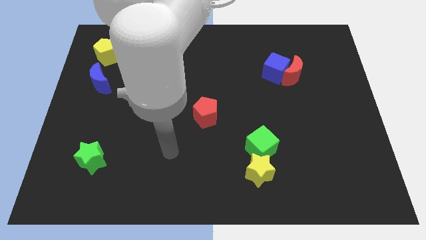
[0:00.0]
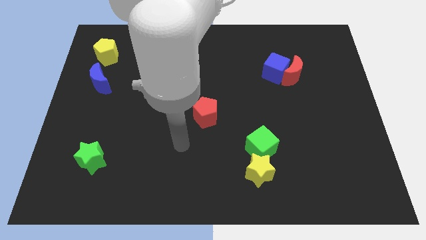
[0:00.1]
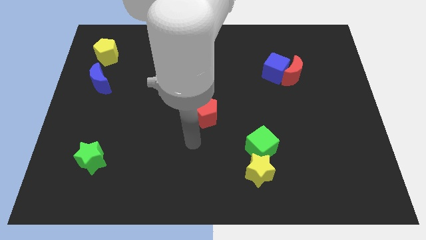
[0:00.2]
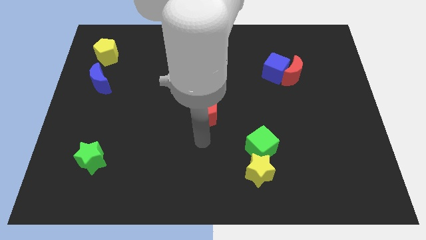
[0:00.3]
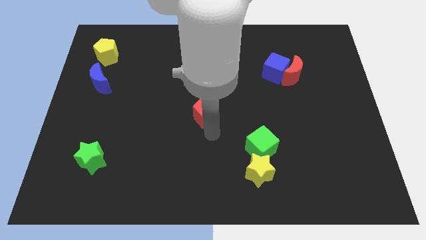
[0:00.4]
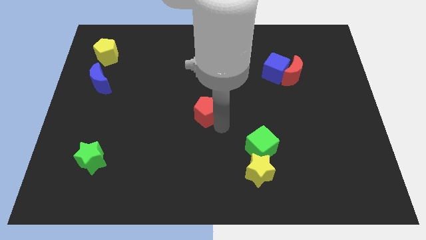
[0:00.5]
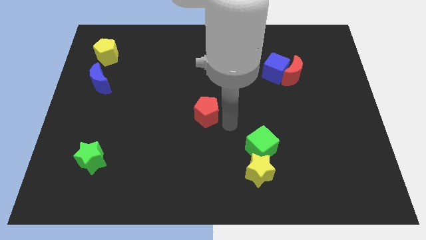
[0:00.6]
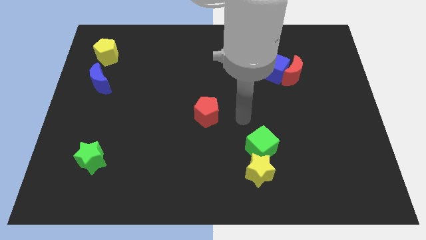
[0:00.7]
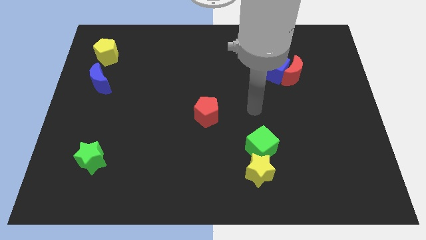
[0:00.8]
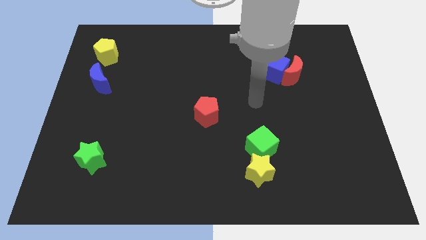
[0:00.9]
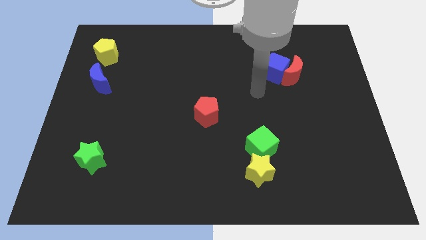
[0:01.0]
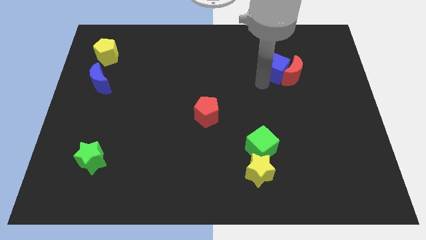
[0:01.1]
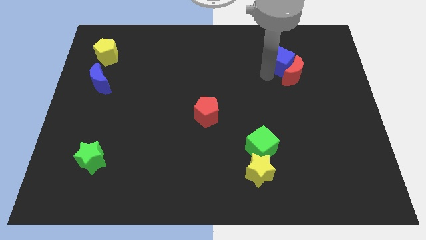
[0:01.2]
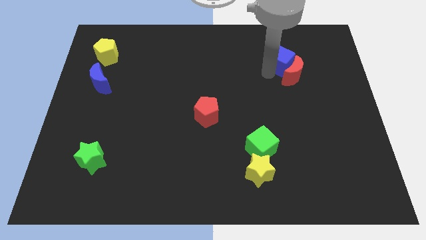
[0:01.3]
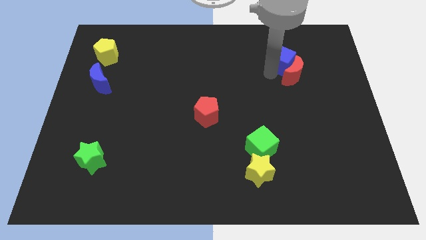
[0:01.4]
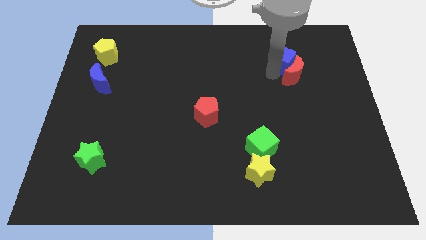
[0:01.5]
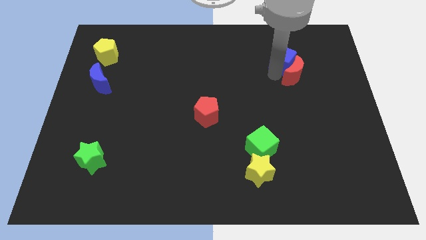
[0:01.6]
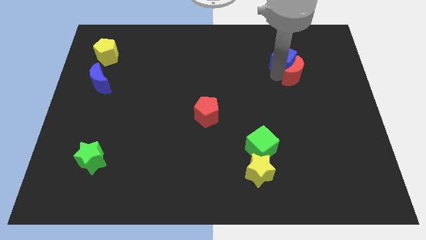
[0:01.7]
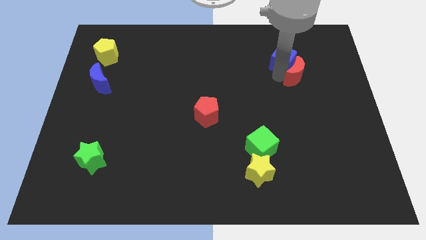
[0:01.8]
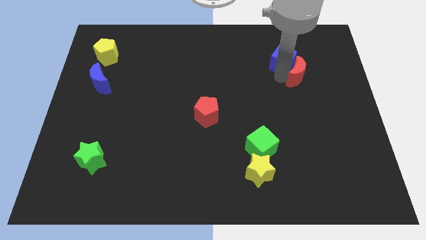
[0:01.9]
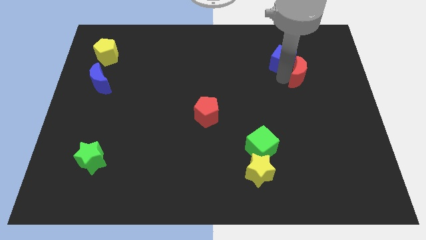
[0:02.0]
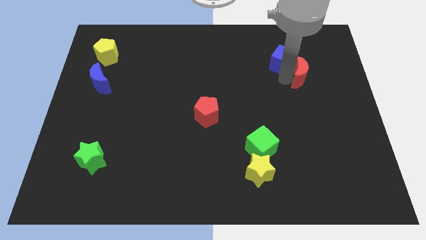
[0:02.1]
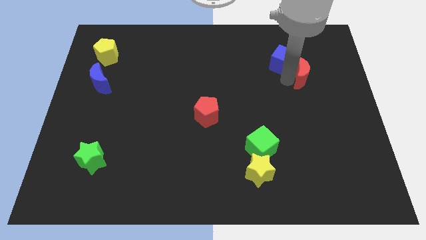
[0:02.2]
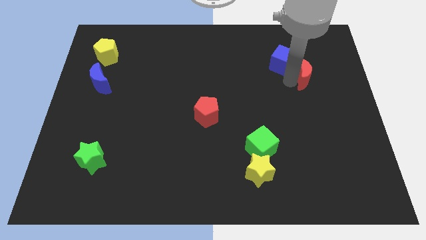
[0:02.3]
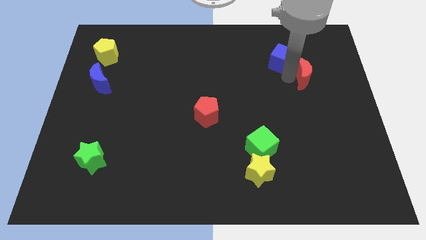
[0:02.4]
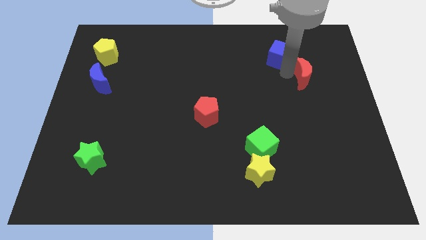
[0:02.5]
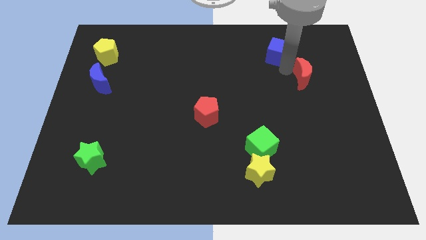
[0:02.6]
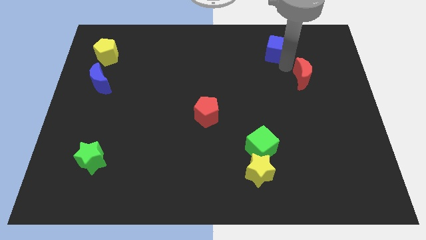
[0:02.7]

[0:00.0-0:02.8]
separate the red moon from the blue cube

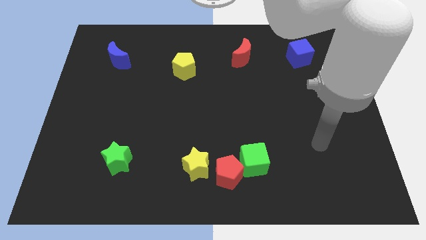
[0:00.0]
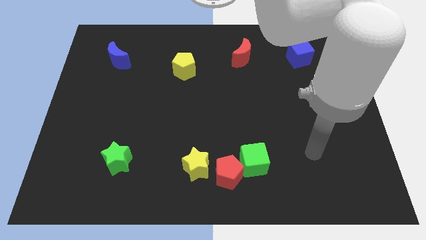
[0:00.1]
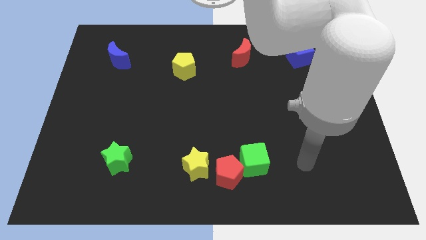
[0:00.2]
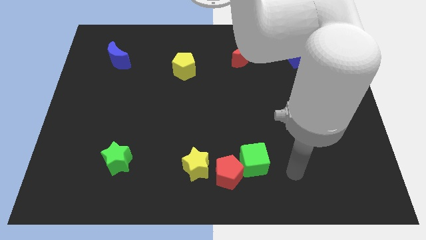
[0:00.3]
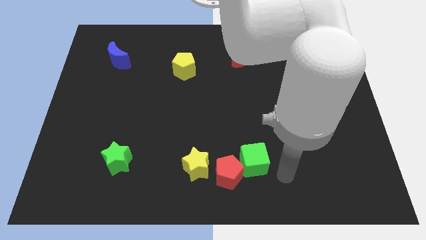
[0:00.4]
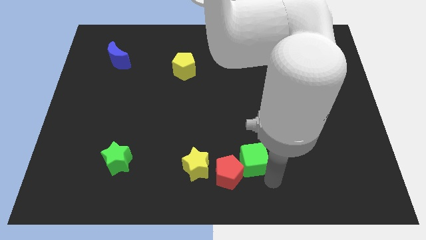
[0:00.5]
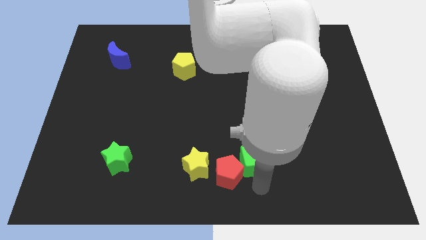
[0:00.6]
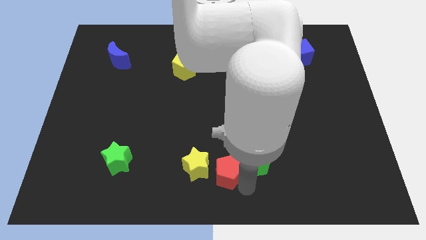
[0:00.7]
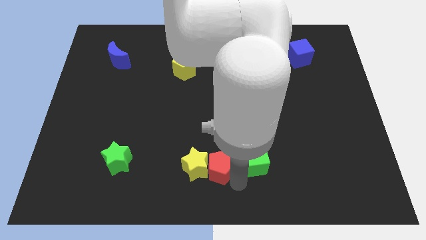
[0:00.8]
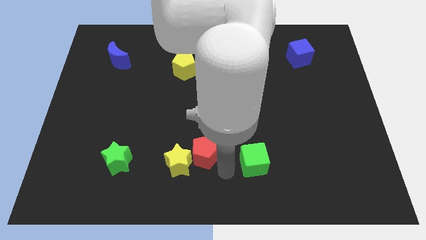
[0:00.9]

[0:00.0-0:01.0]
pull the green cube apart from the red pentagon

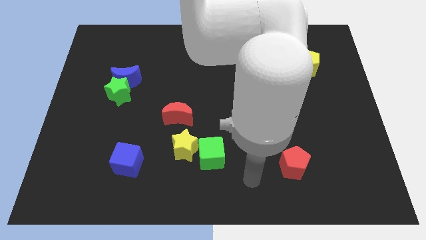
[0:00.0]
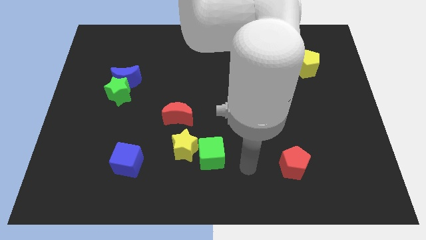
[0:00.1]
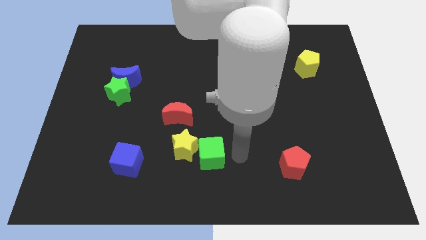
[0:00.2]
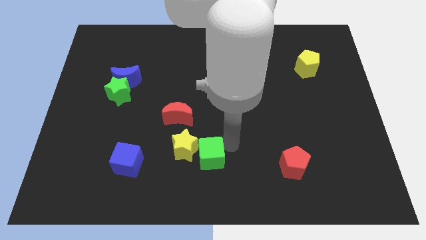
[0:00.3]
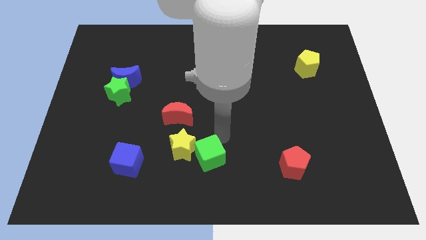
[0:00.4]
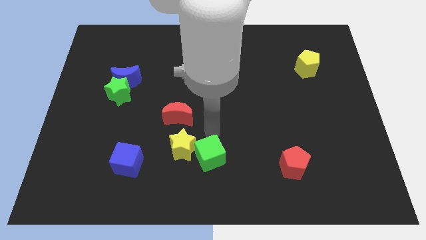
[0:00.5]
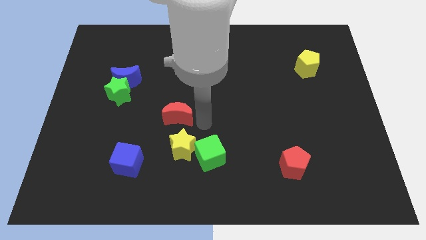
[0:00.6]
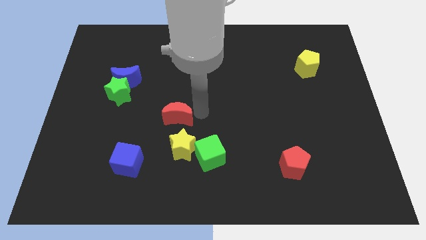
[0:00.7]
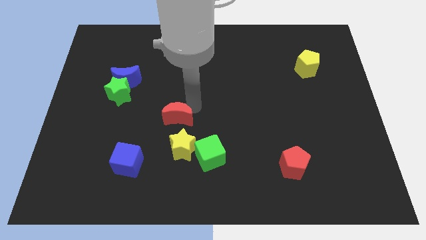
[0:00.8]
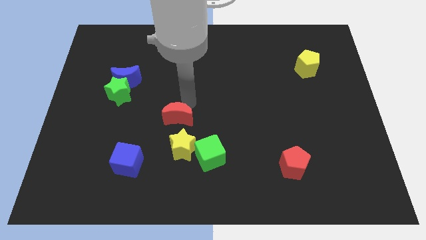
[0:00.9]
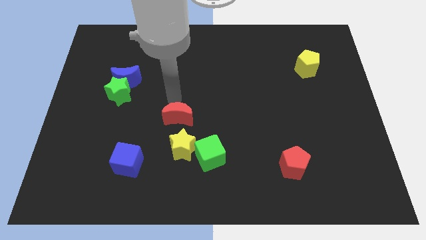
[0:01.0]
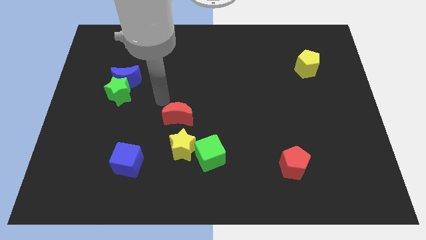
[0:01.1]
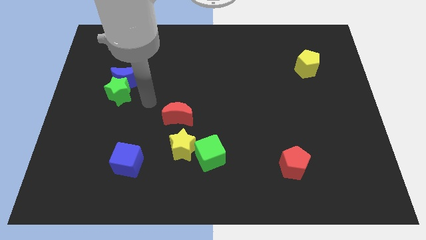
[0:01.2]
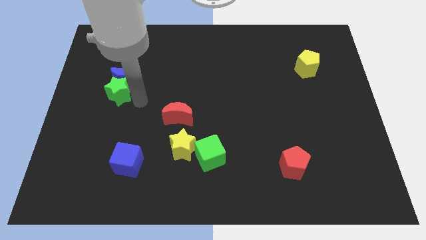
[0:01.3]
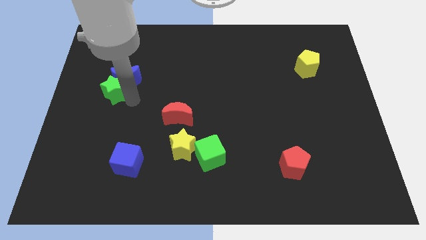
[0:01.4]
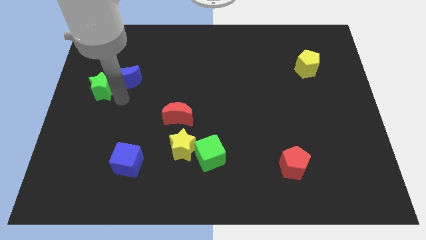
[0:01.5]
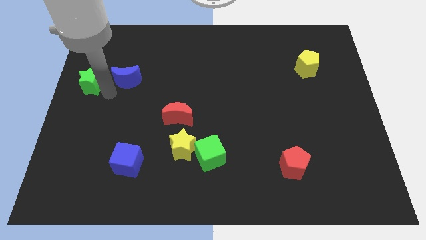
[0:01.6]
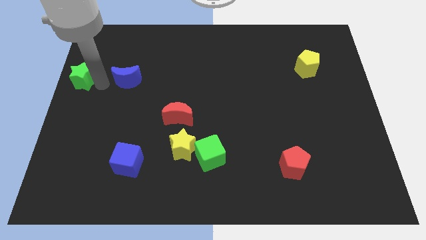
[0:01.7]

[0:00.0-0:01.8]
pull the blue moon apart from the green star

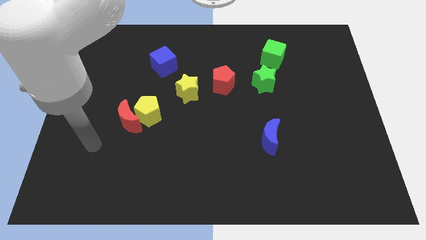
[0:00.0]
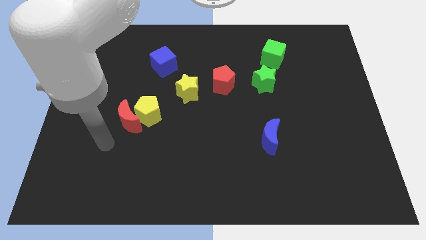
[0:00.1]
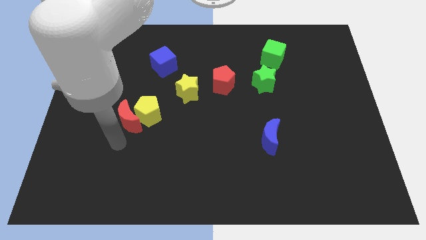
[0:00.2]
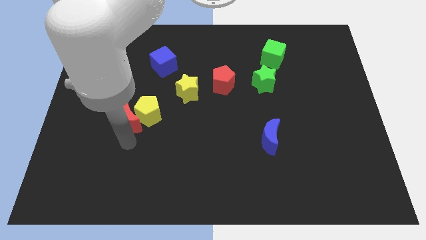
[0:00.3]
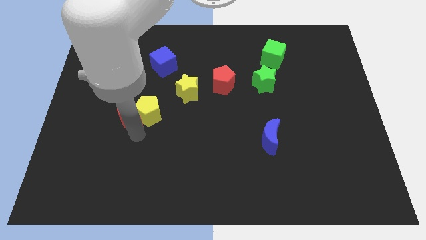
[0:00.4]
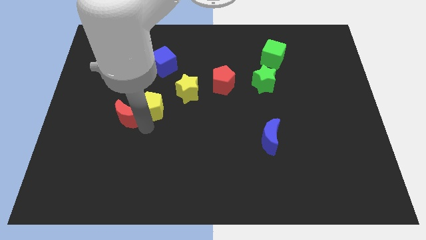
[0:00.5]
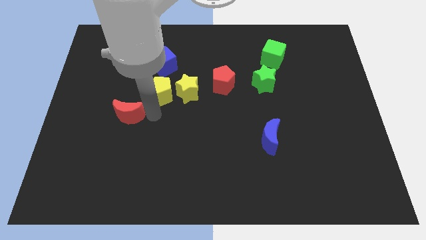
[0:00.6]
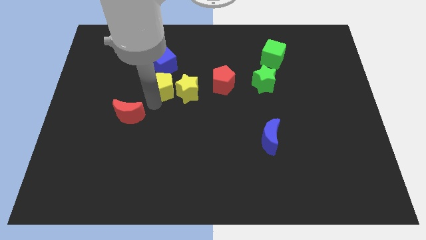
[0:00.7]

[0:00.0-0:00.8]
move the red moon away from the yellow pentagon

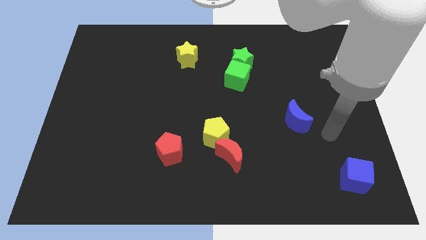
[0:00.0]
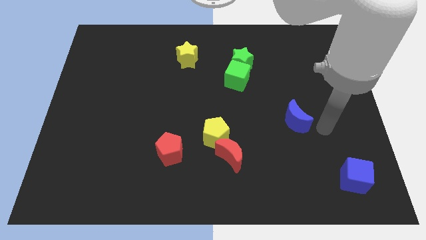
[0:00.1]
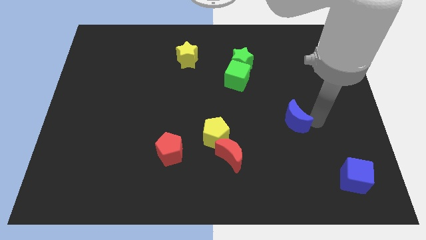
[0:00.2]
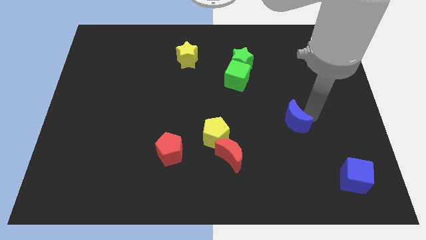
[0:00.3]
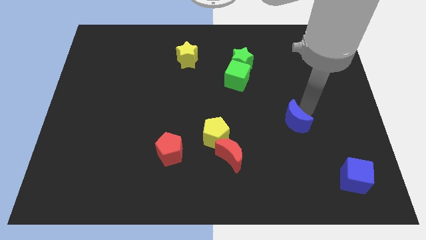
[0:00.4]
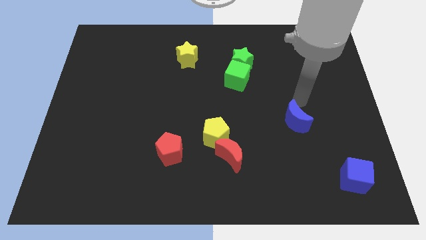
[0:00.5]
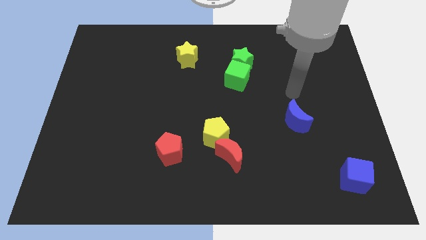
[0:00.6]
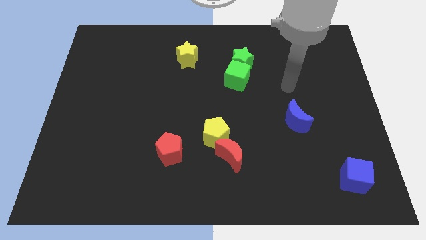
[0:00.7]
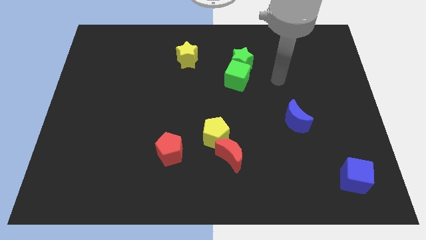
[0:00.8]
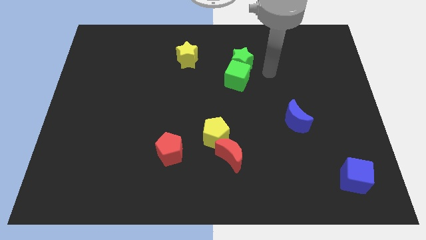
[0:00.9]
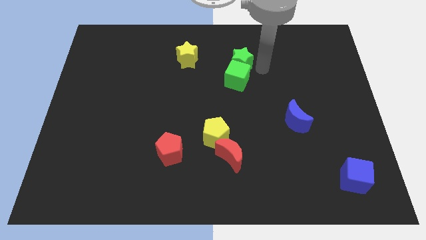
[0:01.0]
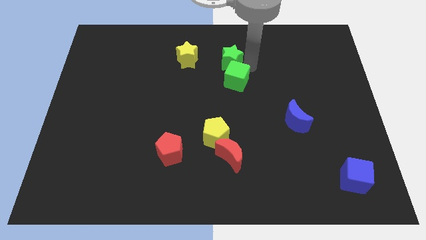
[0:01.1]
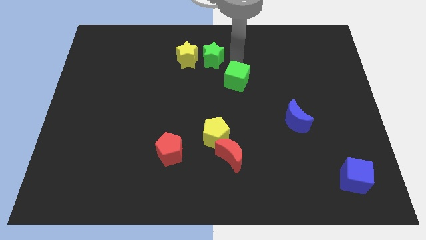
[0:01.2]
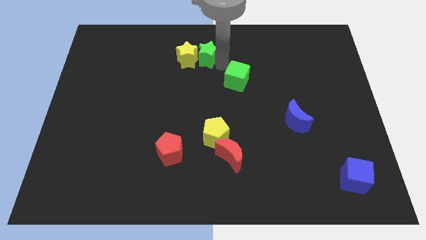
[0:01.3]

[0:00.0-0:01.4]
separate the green cube from the green star

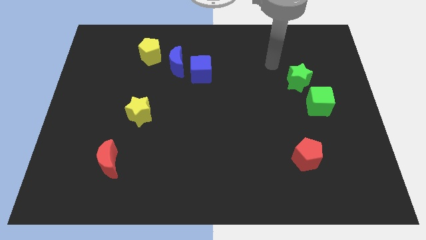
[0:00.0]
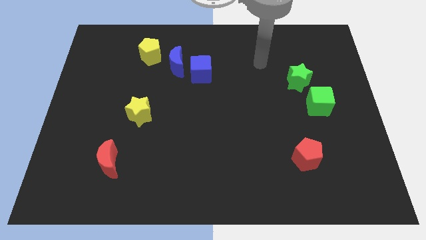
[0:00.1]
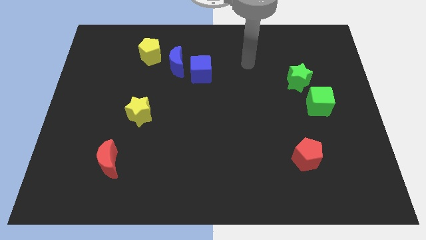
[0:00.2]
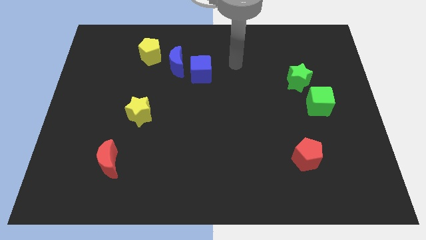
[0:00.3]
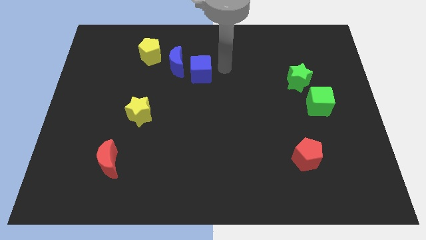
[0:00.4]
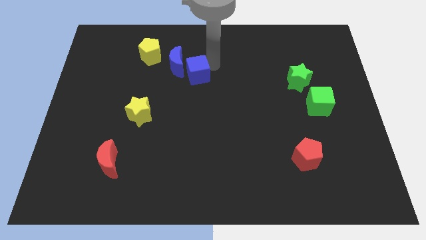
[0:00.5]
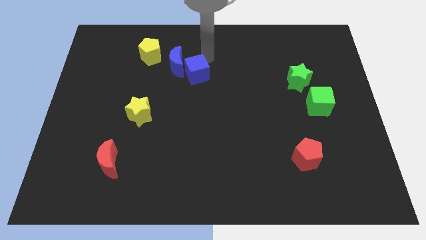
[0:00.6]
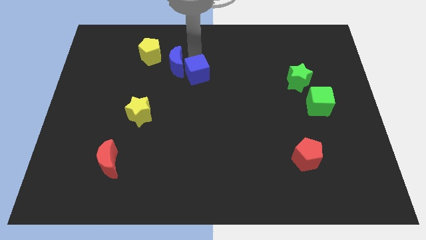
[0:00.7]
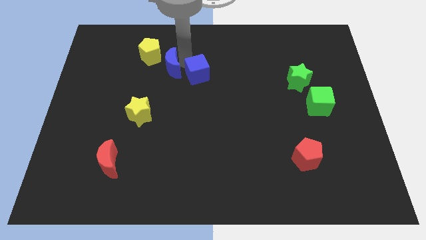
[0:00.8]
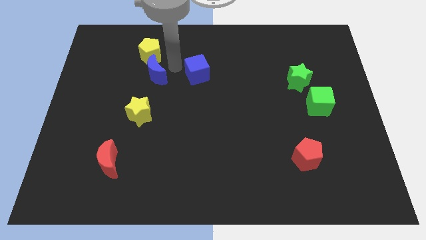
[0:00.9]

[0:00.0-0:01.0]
pull the blue cube apart from the blue moon

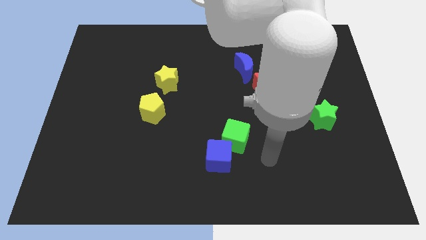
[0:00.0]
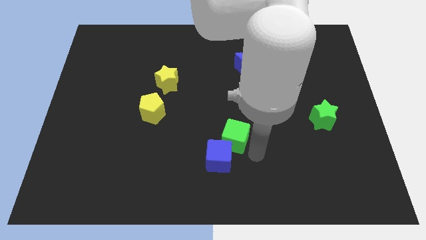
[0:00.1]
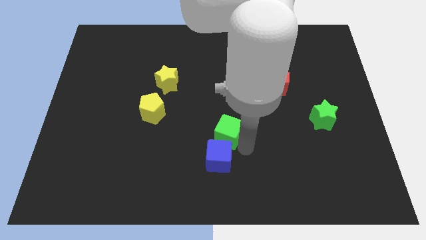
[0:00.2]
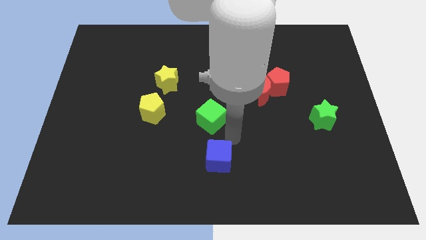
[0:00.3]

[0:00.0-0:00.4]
separate the blue cube from the green cube

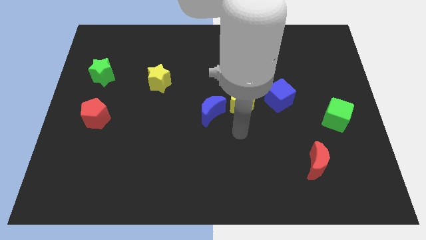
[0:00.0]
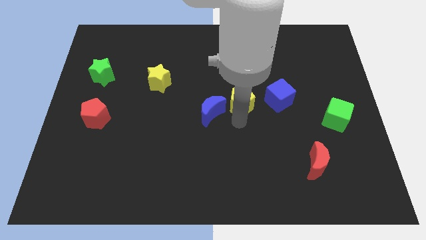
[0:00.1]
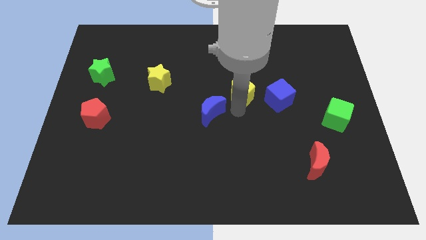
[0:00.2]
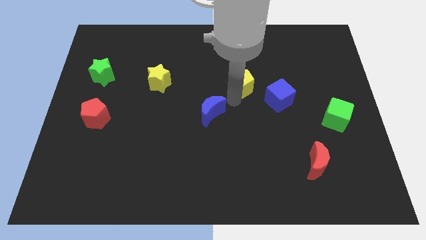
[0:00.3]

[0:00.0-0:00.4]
move the blue moon away from the yellow pentagon
